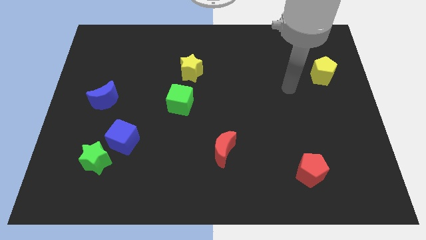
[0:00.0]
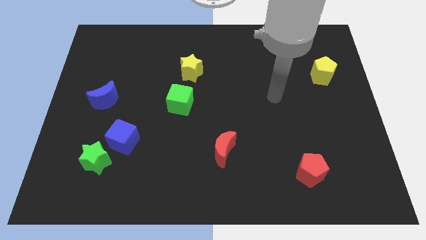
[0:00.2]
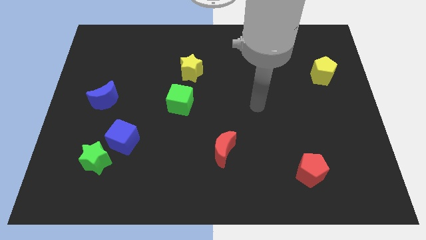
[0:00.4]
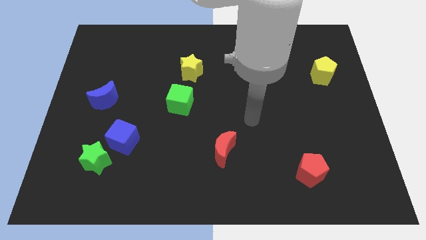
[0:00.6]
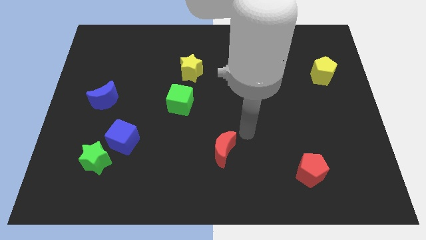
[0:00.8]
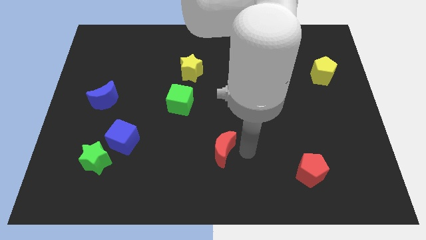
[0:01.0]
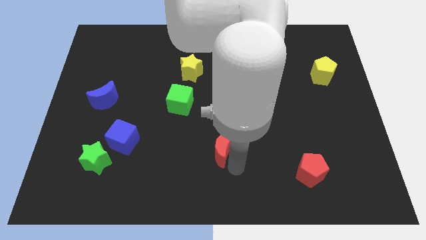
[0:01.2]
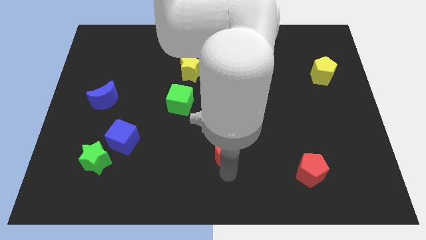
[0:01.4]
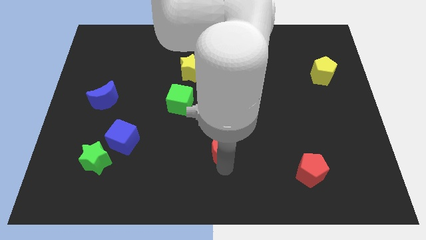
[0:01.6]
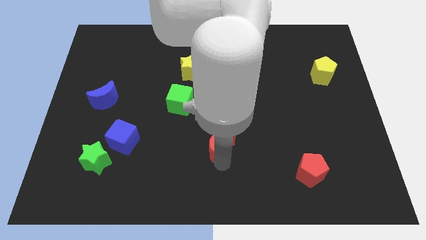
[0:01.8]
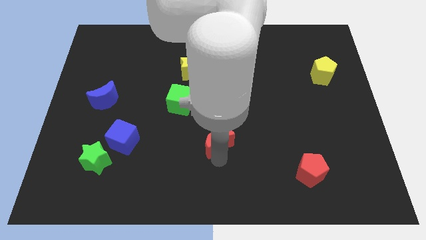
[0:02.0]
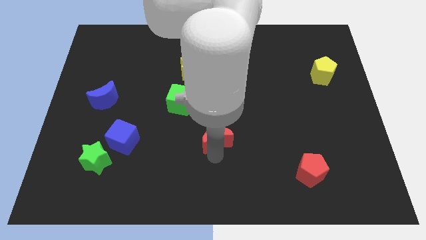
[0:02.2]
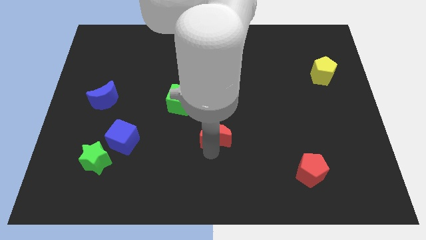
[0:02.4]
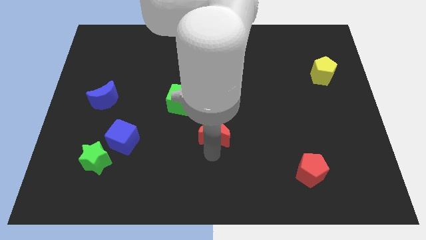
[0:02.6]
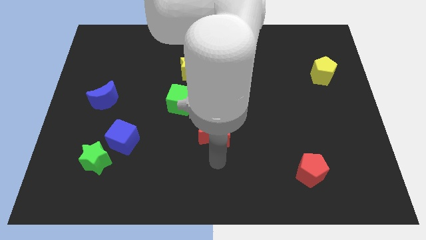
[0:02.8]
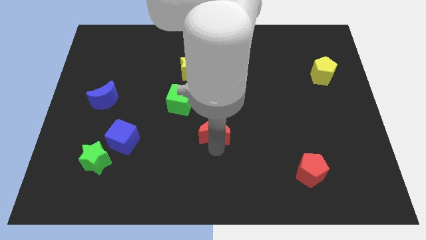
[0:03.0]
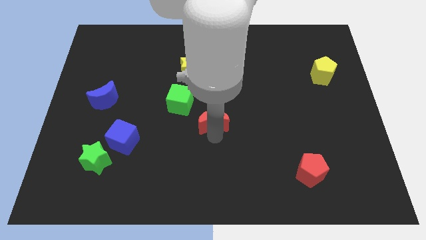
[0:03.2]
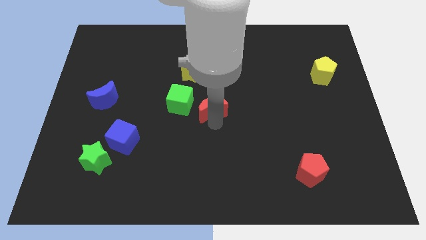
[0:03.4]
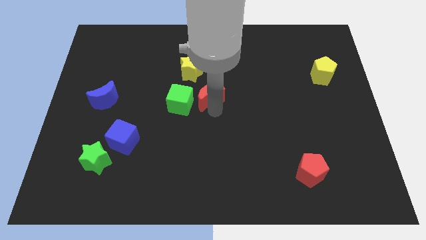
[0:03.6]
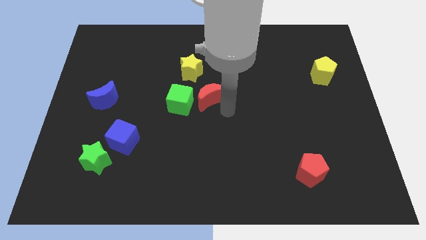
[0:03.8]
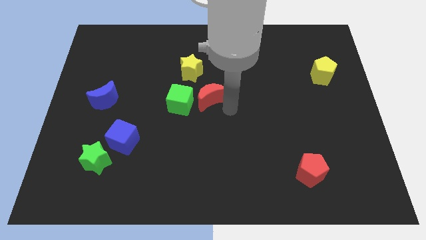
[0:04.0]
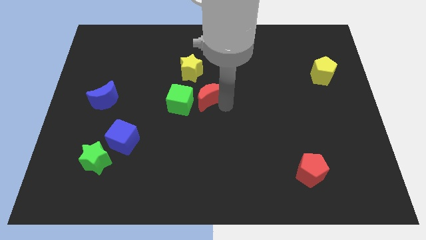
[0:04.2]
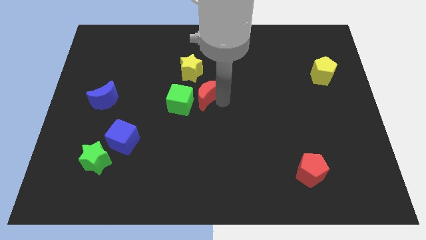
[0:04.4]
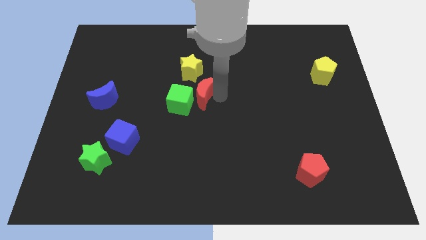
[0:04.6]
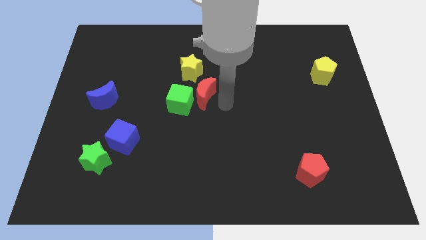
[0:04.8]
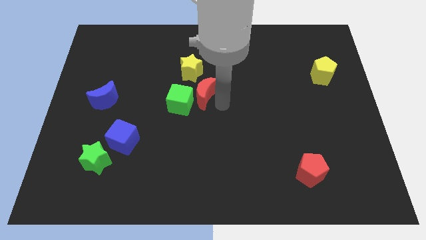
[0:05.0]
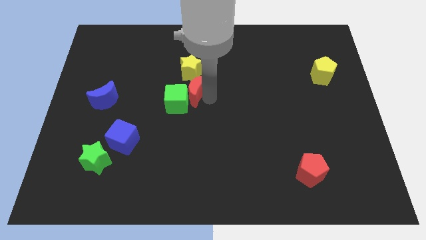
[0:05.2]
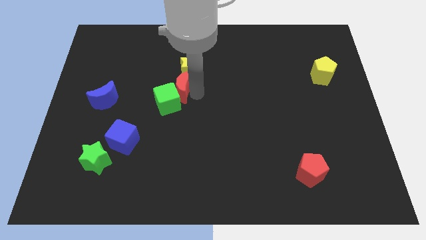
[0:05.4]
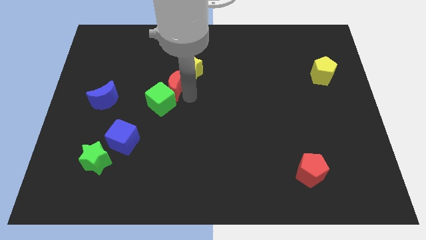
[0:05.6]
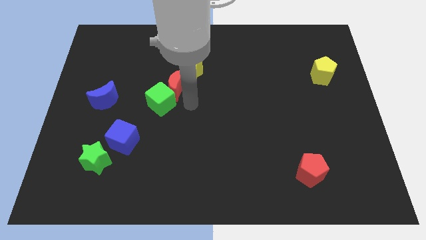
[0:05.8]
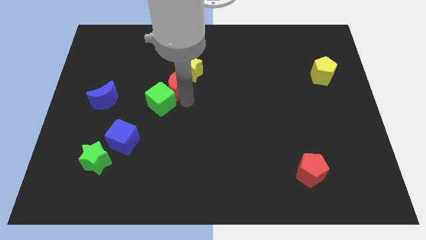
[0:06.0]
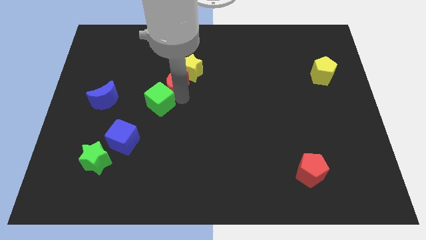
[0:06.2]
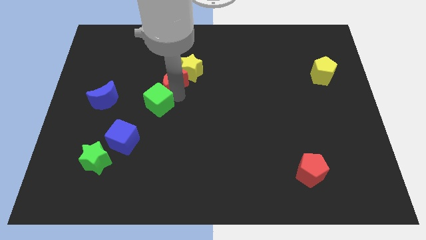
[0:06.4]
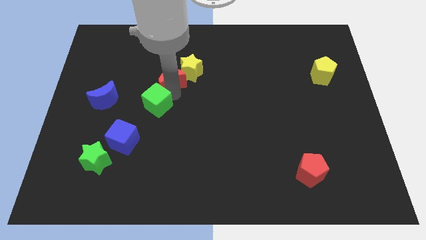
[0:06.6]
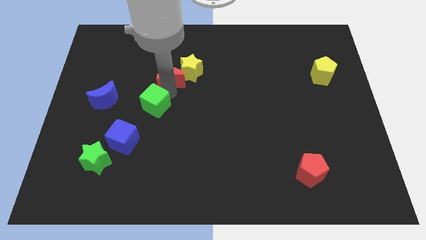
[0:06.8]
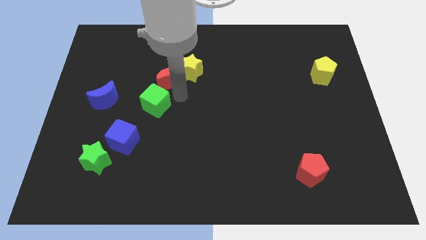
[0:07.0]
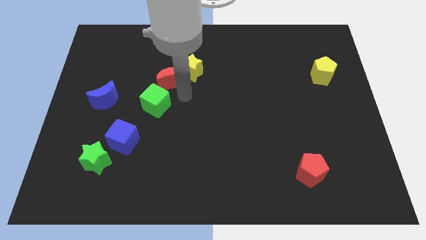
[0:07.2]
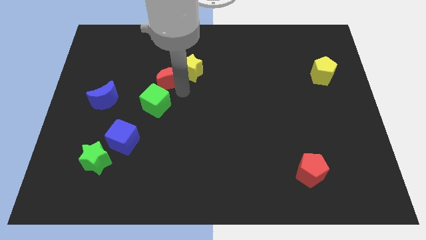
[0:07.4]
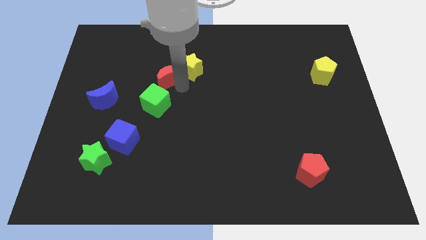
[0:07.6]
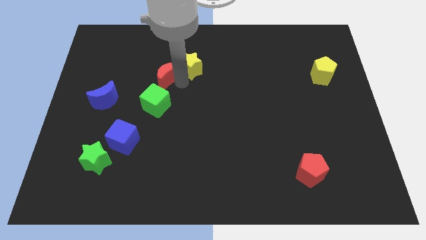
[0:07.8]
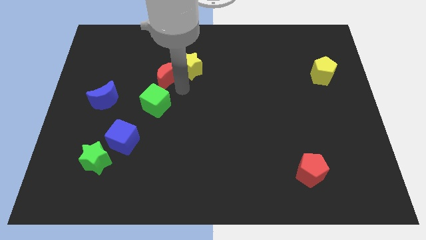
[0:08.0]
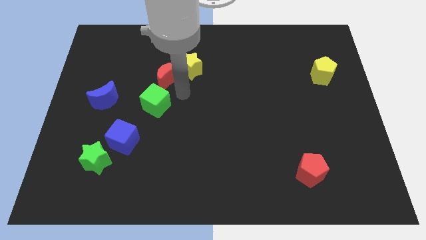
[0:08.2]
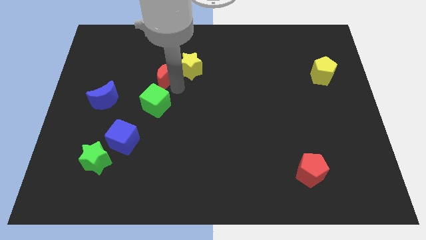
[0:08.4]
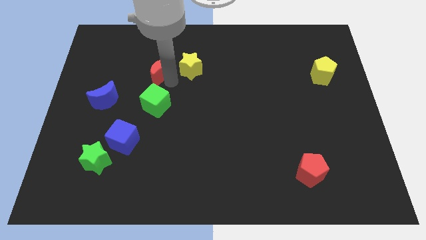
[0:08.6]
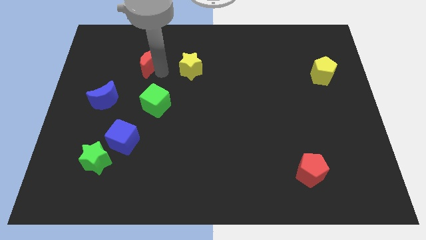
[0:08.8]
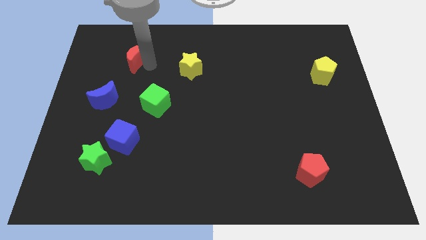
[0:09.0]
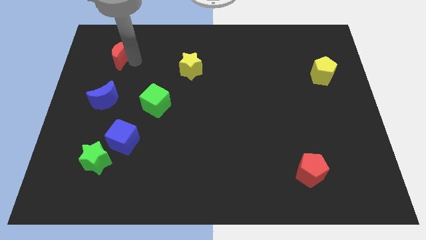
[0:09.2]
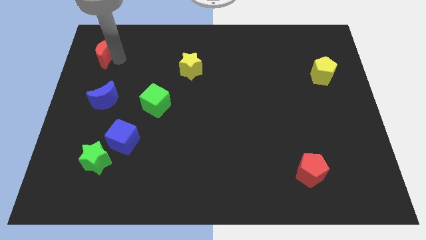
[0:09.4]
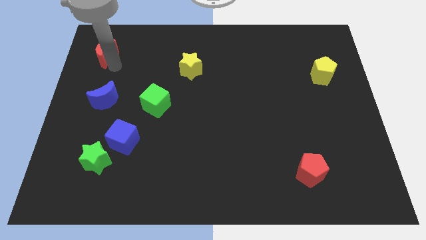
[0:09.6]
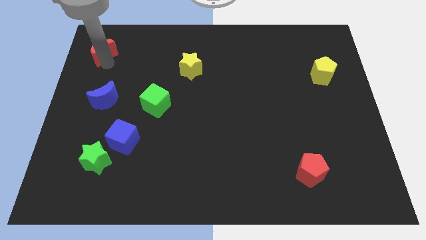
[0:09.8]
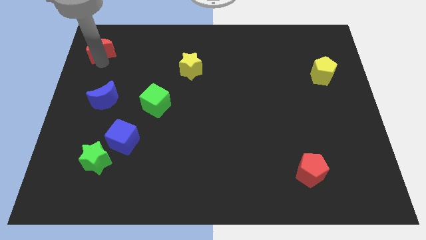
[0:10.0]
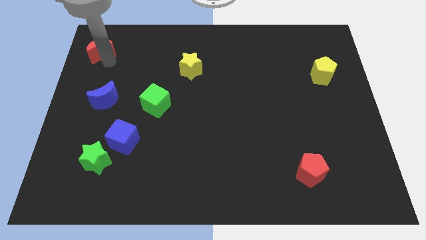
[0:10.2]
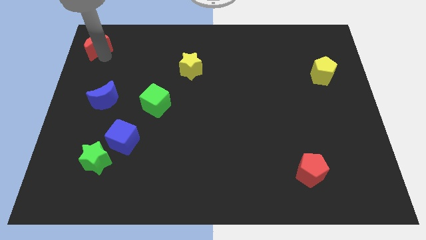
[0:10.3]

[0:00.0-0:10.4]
push the red moon to the top left corner

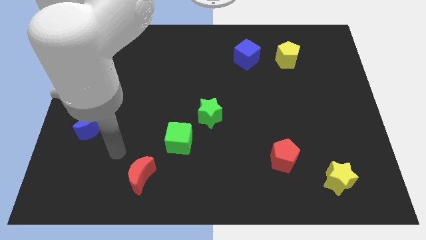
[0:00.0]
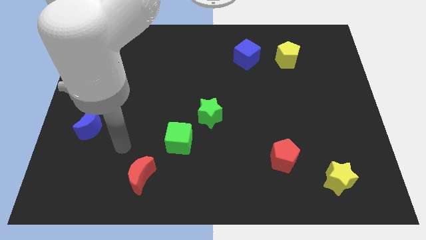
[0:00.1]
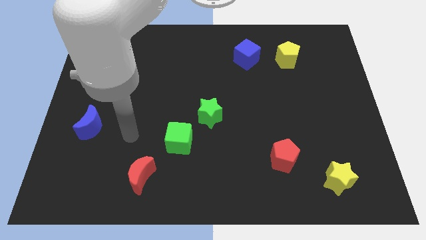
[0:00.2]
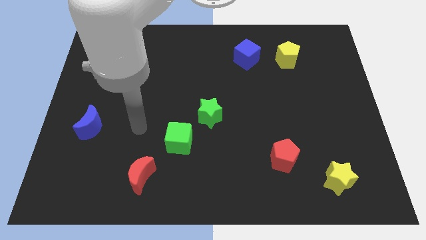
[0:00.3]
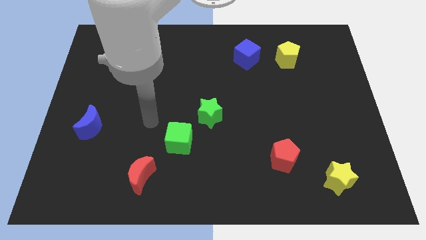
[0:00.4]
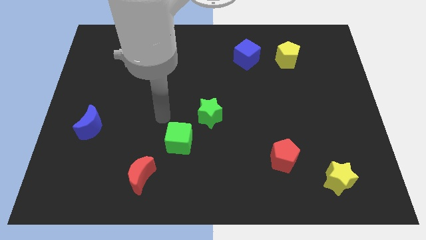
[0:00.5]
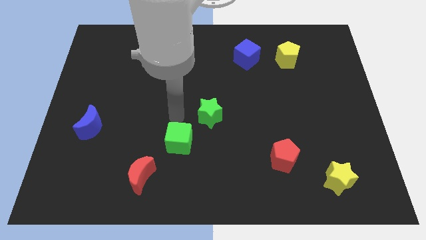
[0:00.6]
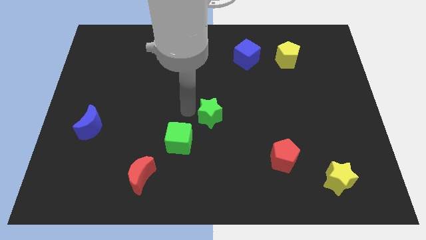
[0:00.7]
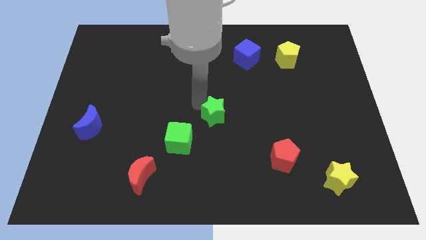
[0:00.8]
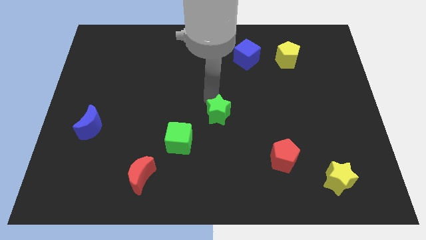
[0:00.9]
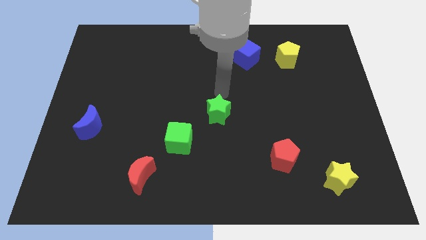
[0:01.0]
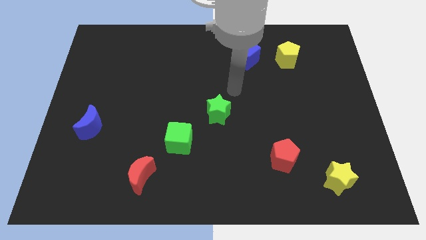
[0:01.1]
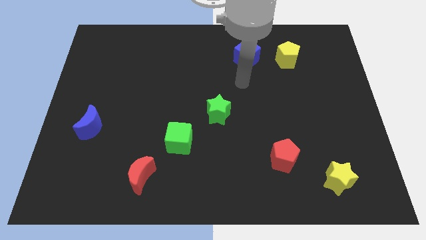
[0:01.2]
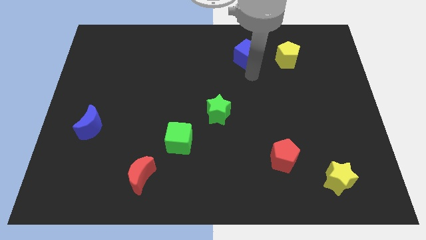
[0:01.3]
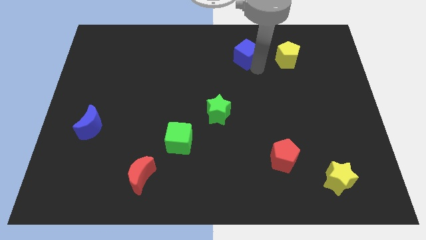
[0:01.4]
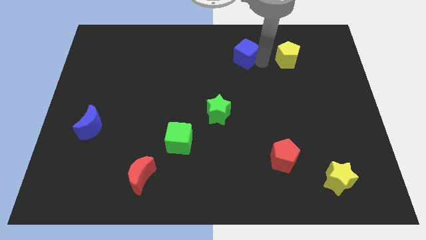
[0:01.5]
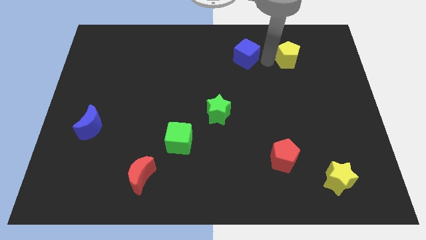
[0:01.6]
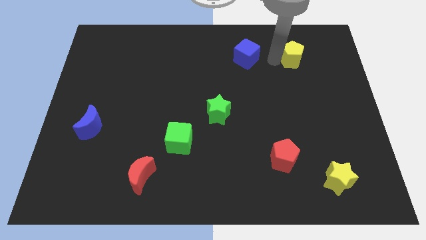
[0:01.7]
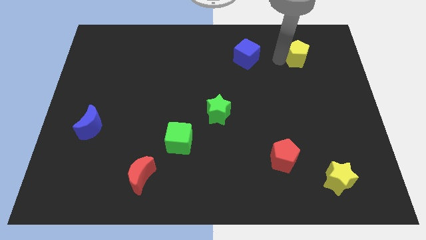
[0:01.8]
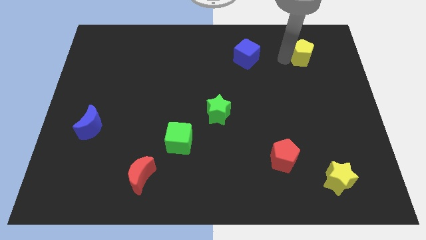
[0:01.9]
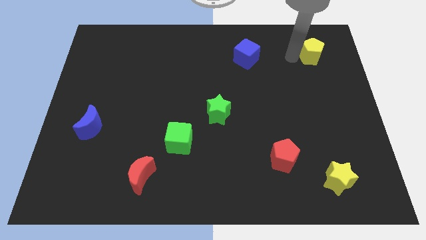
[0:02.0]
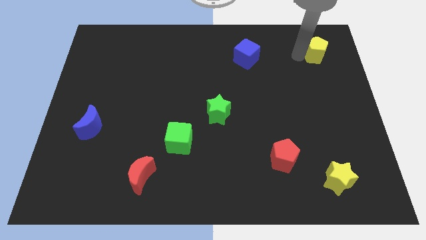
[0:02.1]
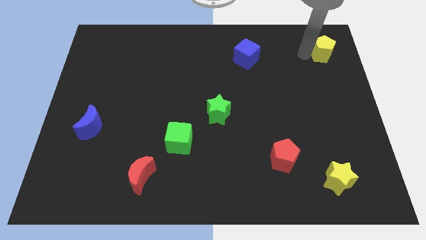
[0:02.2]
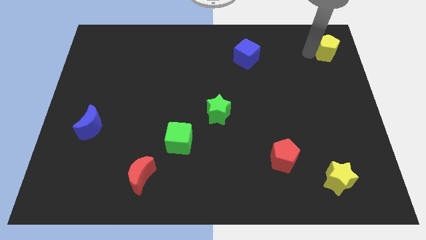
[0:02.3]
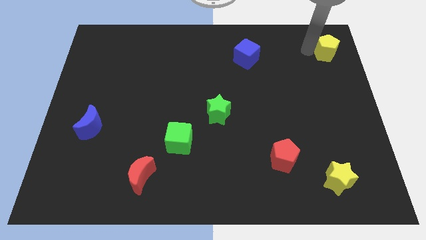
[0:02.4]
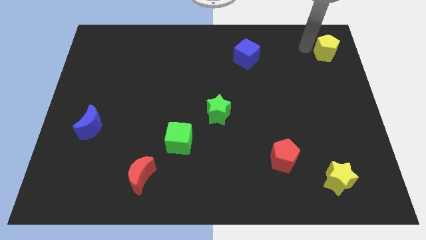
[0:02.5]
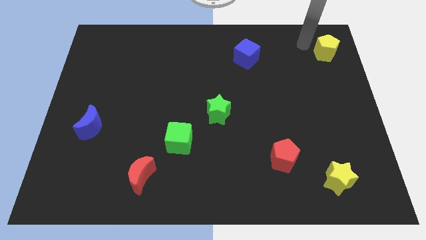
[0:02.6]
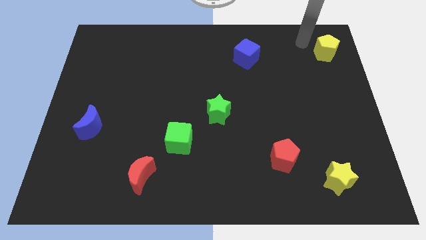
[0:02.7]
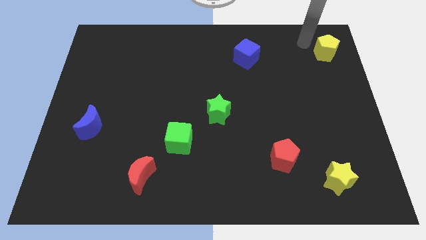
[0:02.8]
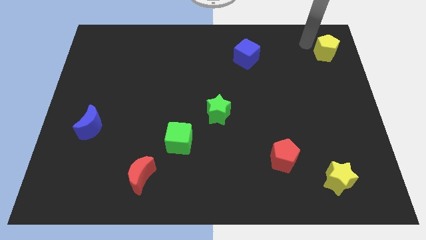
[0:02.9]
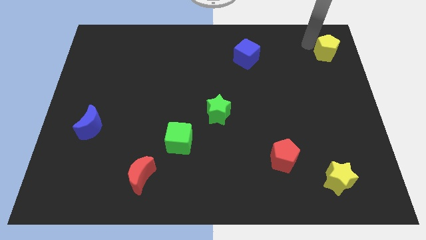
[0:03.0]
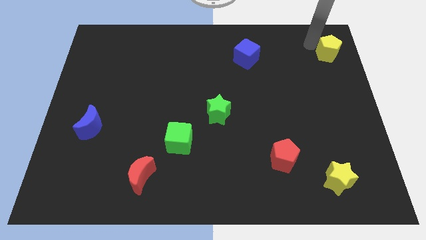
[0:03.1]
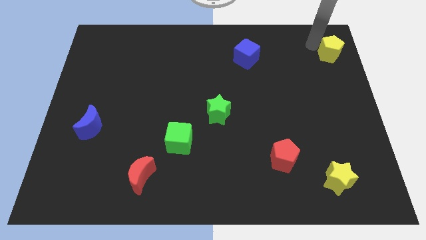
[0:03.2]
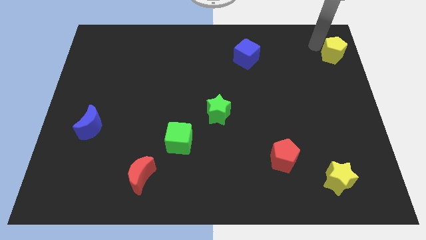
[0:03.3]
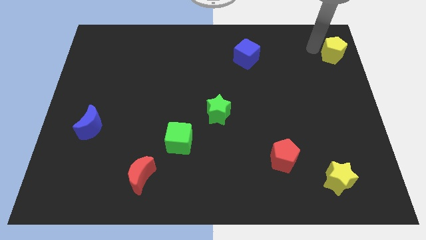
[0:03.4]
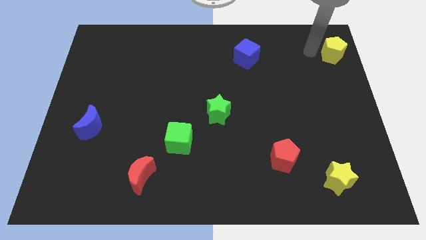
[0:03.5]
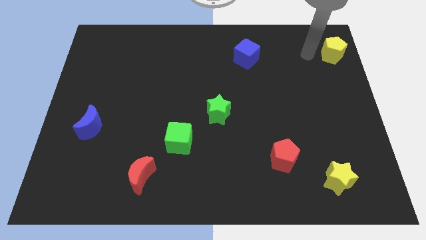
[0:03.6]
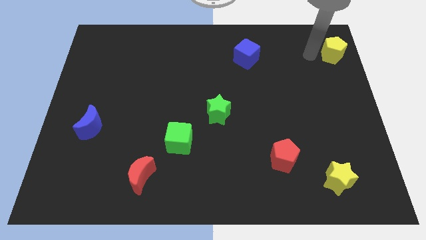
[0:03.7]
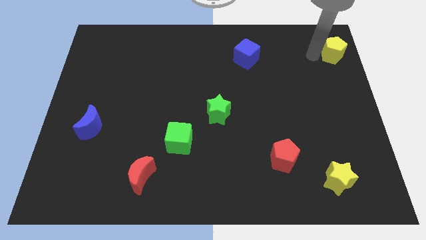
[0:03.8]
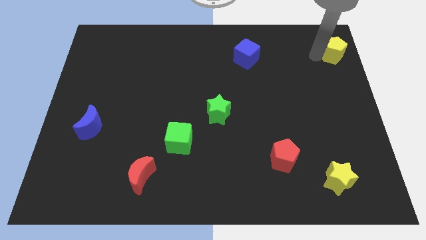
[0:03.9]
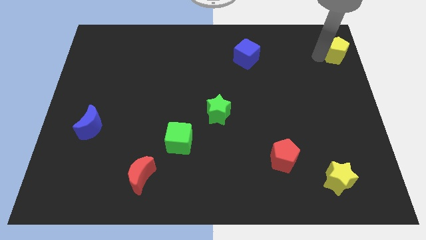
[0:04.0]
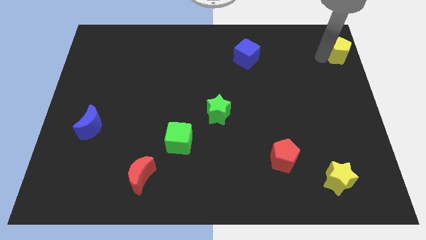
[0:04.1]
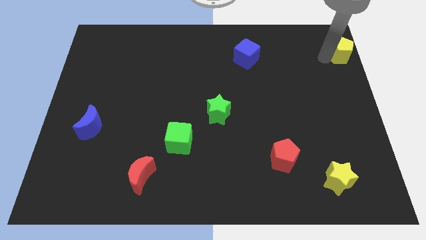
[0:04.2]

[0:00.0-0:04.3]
move the yellow pentagon to the top right corner
